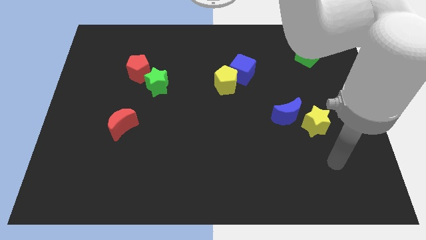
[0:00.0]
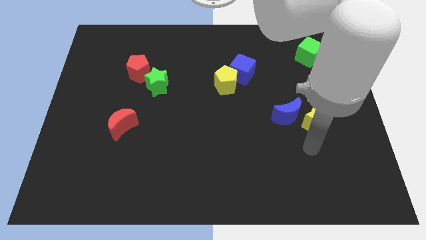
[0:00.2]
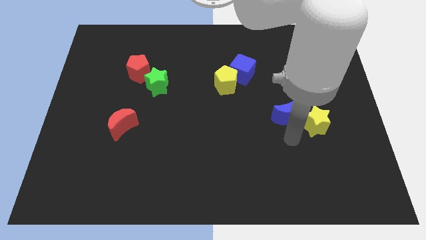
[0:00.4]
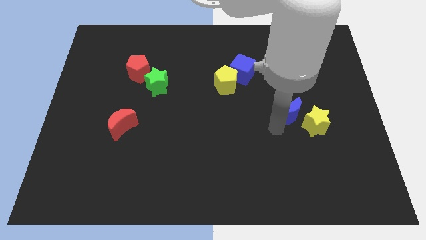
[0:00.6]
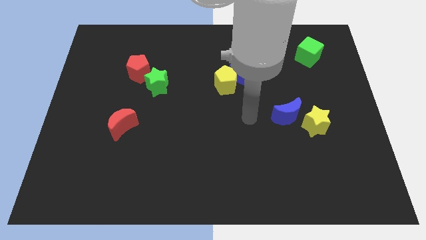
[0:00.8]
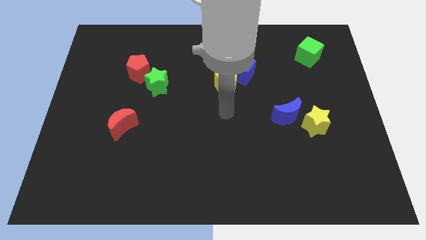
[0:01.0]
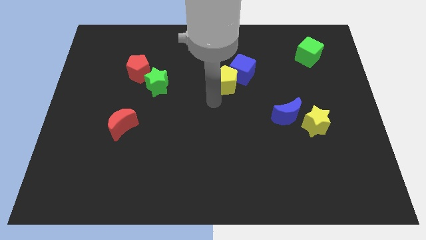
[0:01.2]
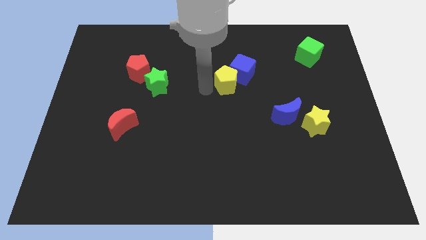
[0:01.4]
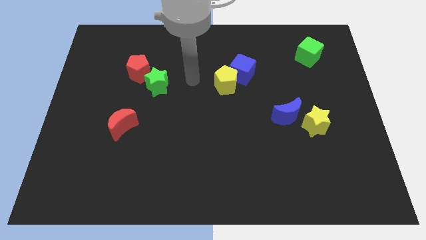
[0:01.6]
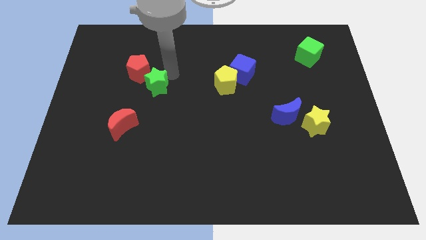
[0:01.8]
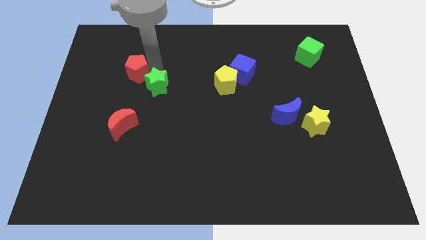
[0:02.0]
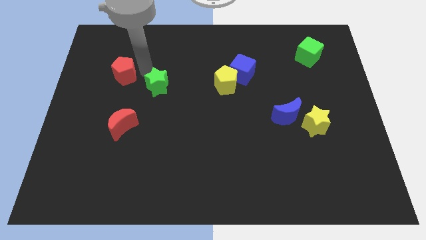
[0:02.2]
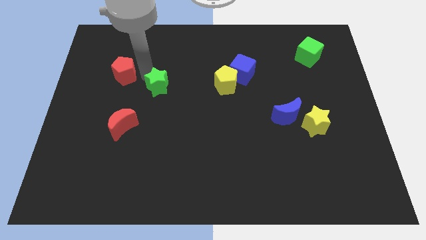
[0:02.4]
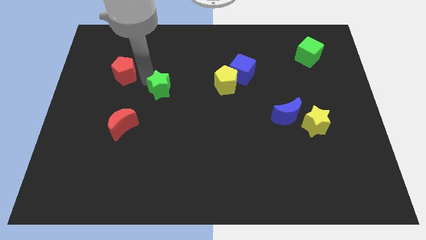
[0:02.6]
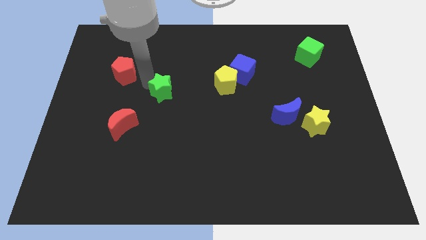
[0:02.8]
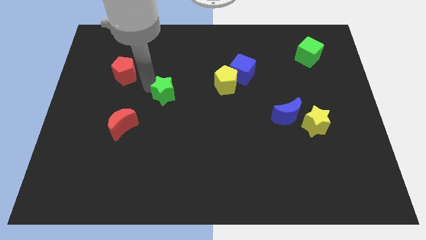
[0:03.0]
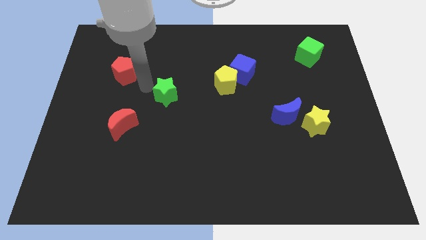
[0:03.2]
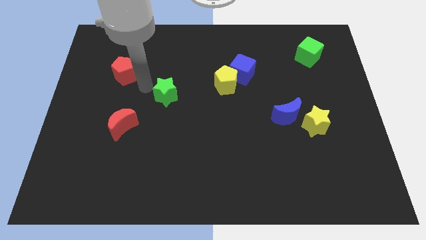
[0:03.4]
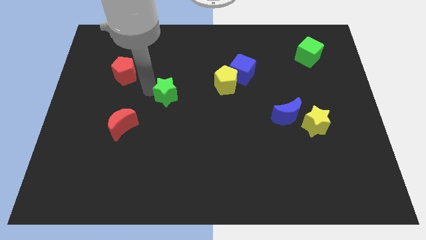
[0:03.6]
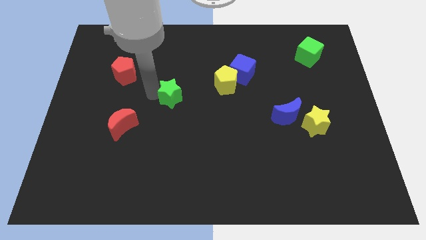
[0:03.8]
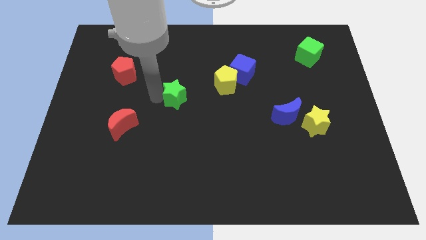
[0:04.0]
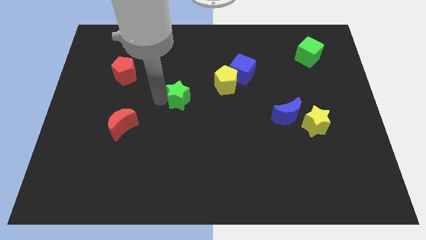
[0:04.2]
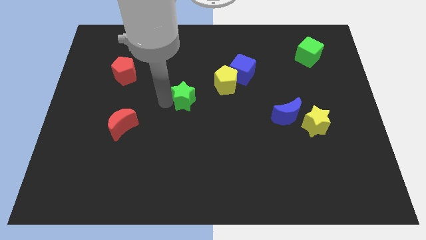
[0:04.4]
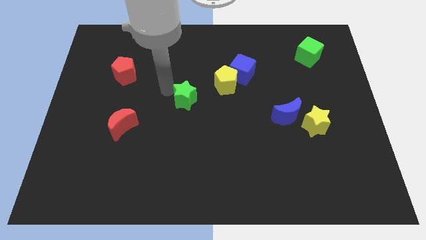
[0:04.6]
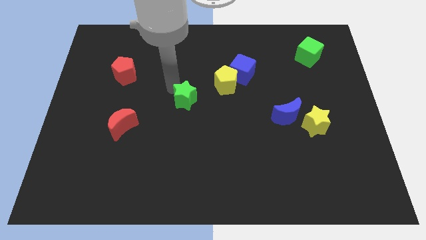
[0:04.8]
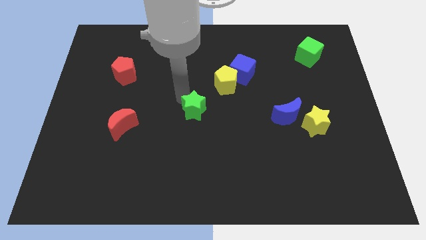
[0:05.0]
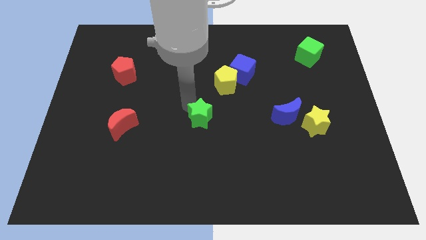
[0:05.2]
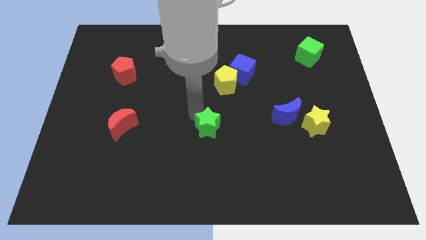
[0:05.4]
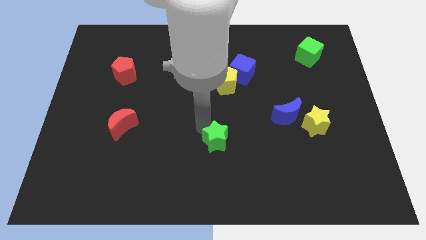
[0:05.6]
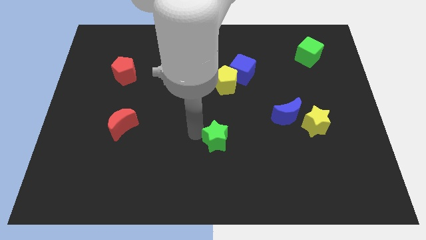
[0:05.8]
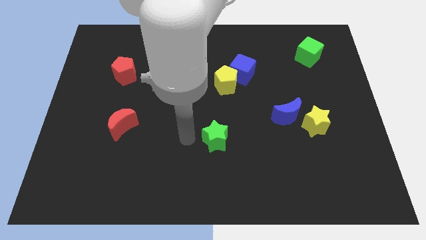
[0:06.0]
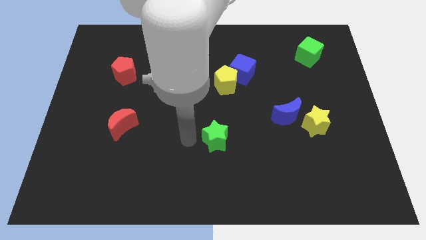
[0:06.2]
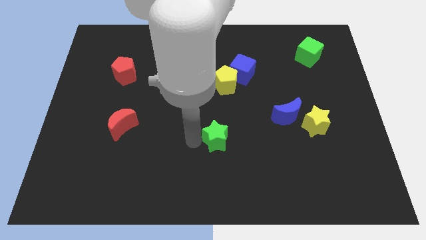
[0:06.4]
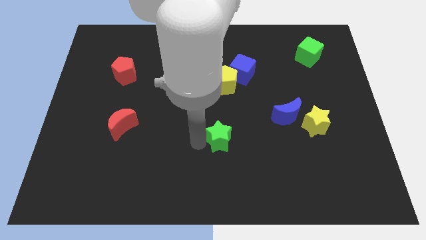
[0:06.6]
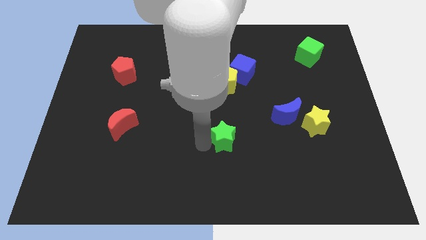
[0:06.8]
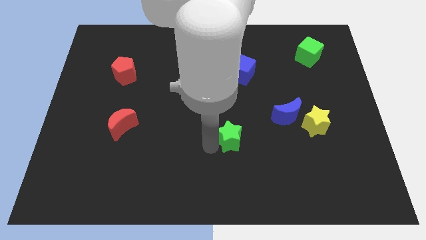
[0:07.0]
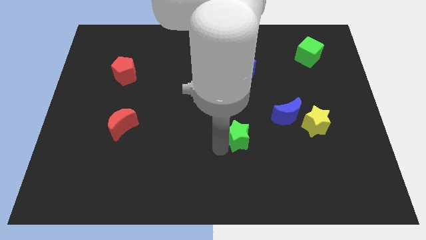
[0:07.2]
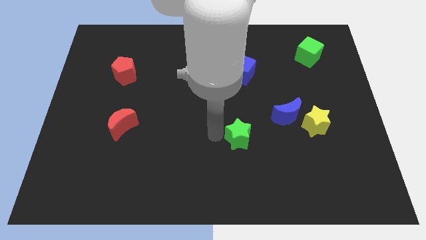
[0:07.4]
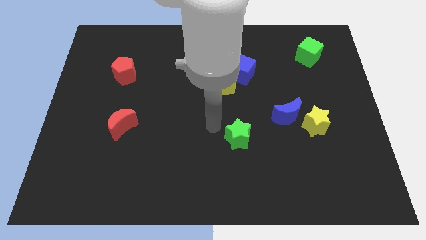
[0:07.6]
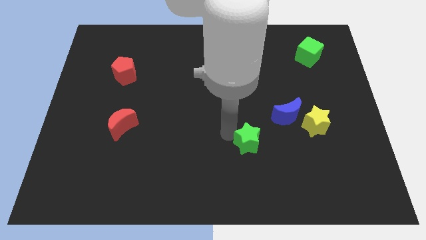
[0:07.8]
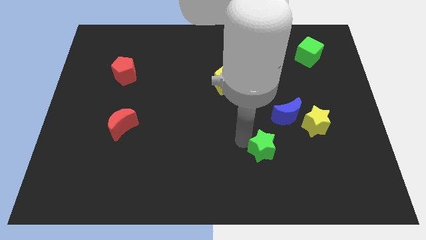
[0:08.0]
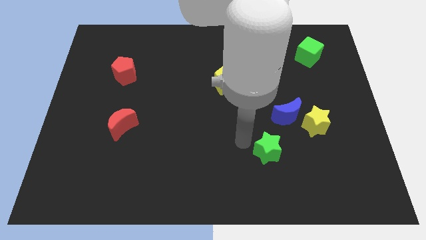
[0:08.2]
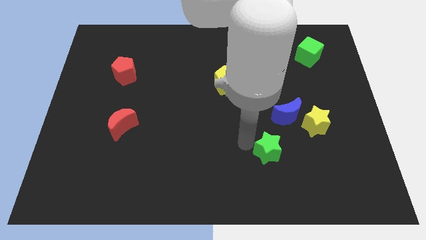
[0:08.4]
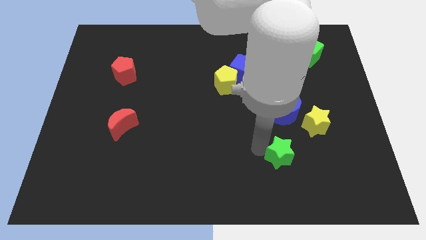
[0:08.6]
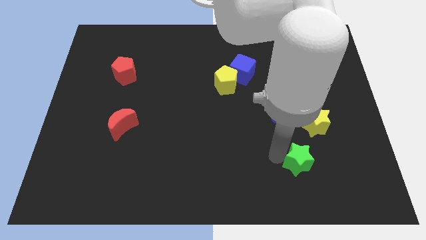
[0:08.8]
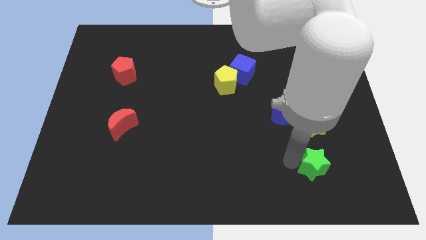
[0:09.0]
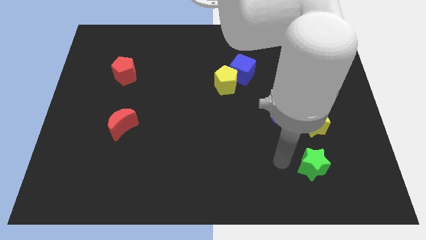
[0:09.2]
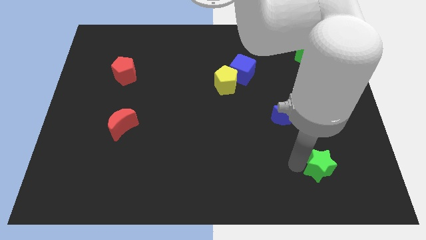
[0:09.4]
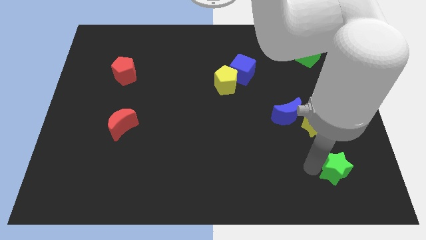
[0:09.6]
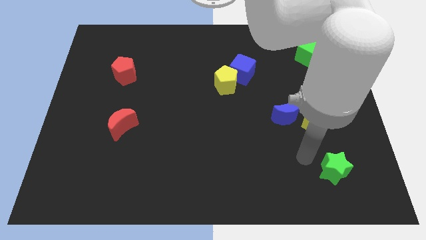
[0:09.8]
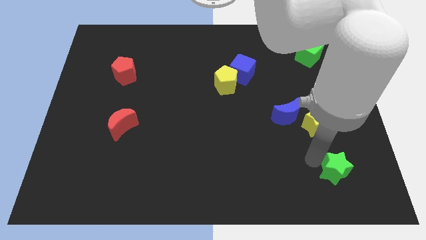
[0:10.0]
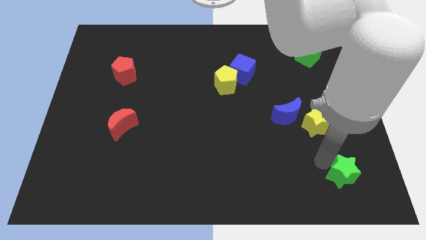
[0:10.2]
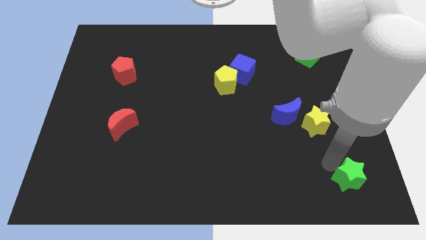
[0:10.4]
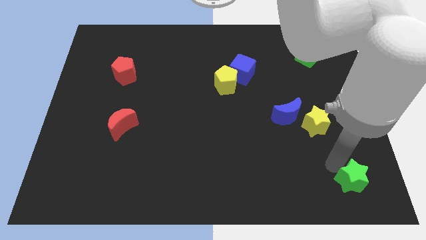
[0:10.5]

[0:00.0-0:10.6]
push the green star to the bottom right of the board

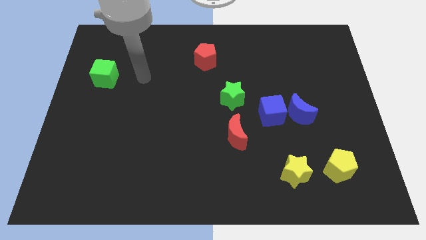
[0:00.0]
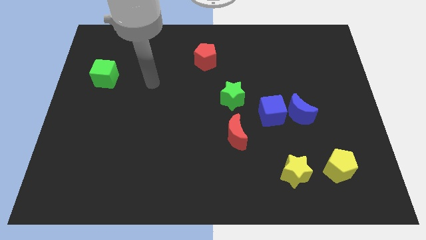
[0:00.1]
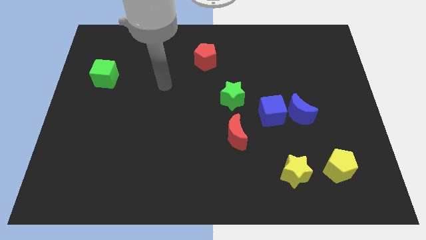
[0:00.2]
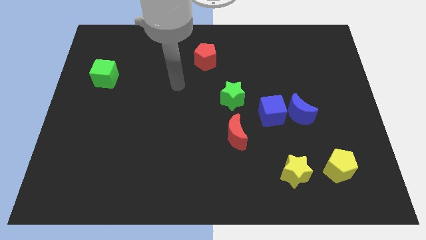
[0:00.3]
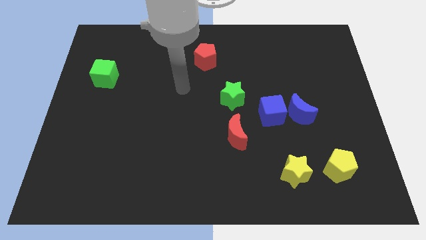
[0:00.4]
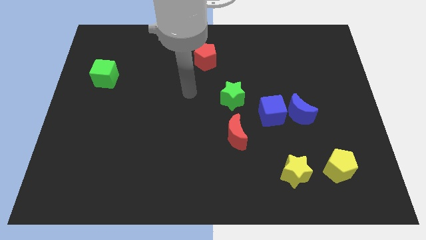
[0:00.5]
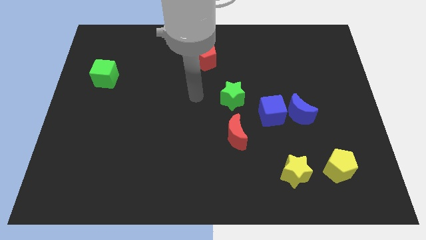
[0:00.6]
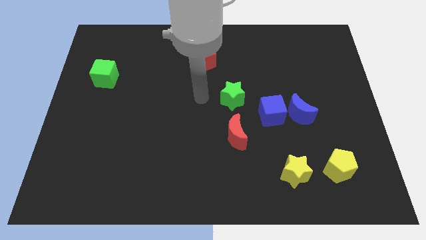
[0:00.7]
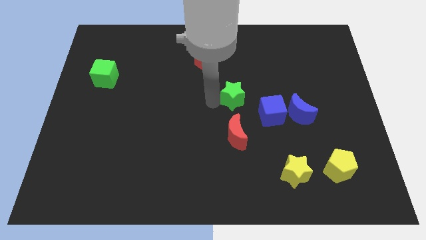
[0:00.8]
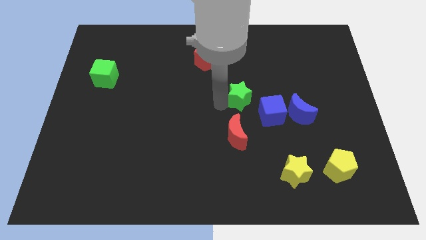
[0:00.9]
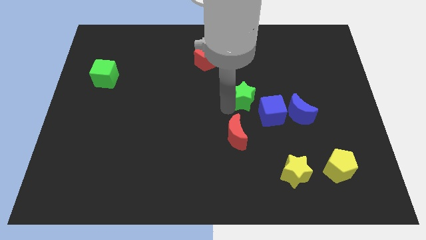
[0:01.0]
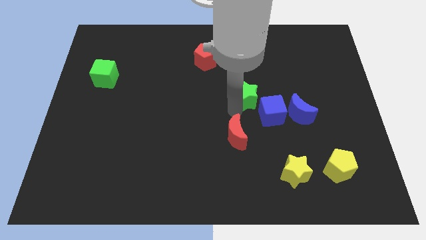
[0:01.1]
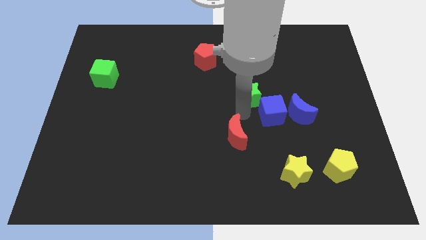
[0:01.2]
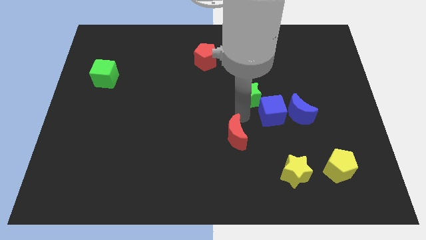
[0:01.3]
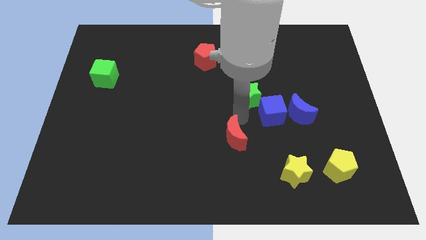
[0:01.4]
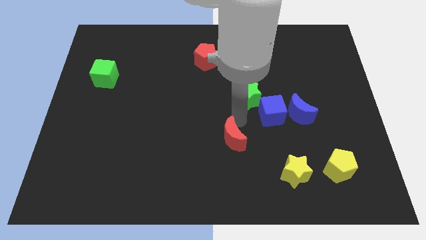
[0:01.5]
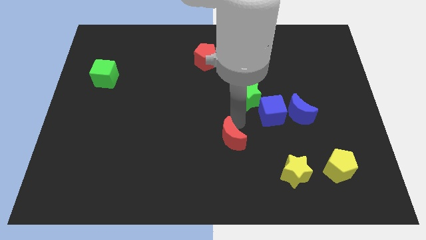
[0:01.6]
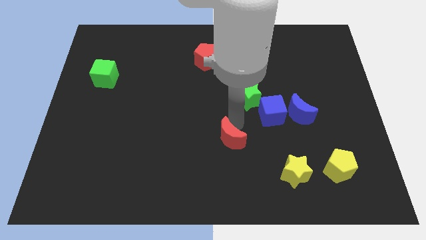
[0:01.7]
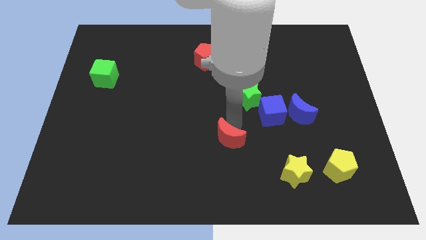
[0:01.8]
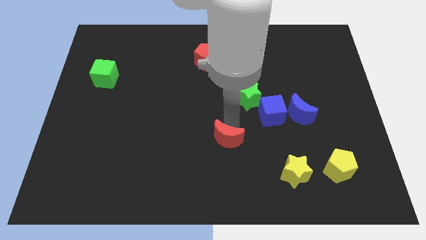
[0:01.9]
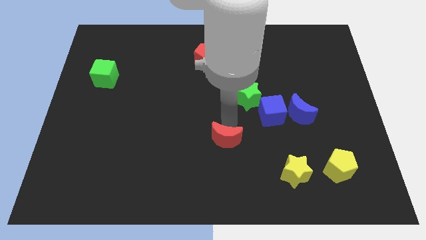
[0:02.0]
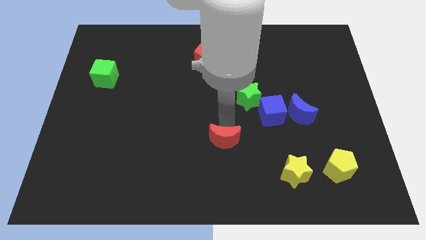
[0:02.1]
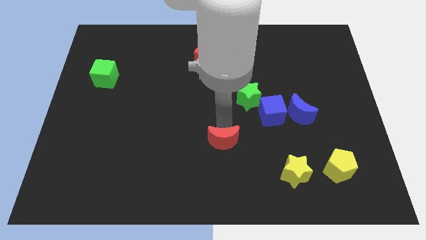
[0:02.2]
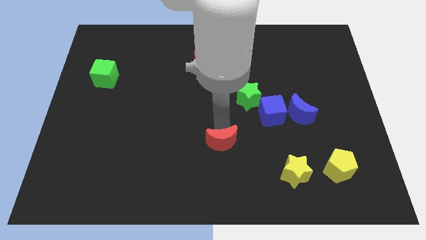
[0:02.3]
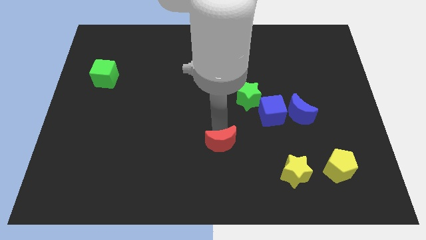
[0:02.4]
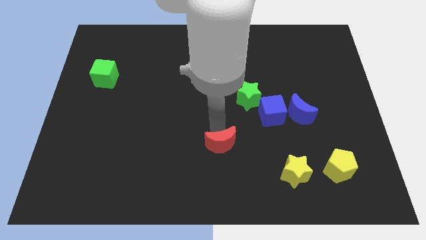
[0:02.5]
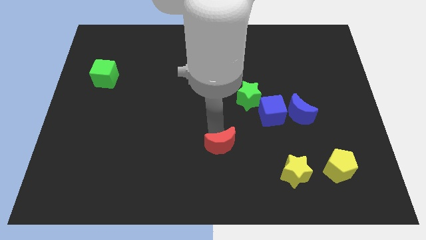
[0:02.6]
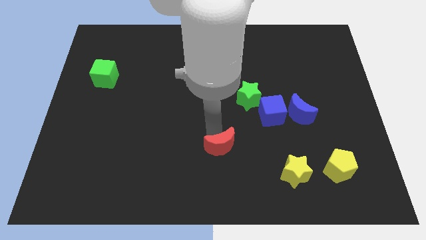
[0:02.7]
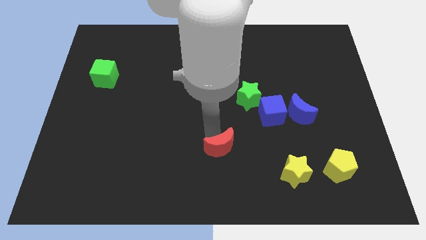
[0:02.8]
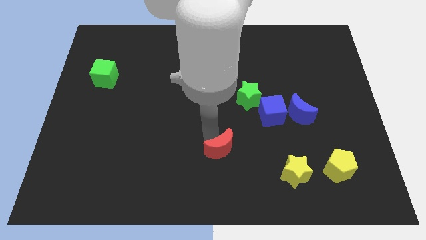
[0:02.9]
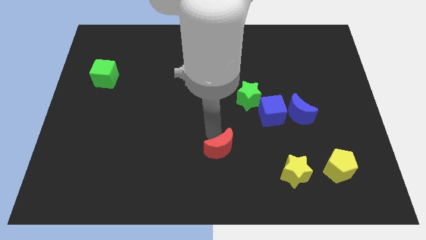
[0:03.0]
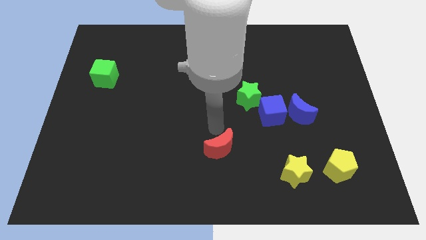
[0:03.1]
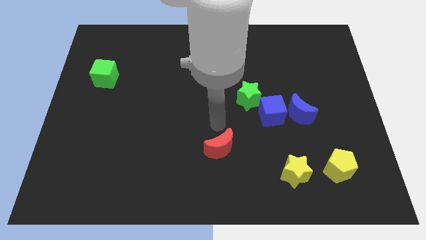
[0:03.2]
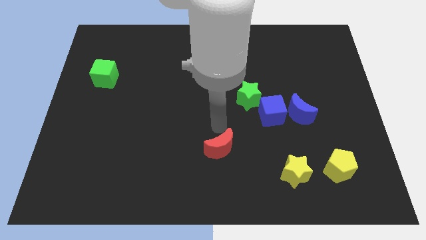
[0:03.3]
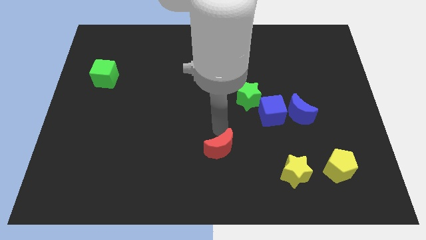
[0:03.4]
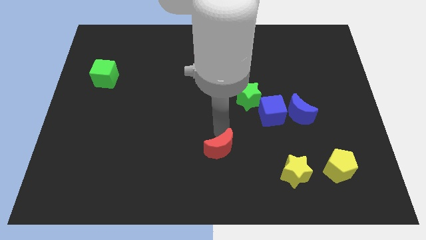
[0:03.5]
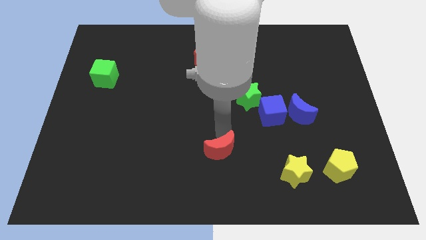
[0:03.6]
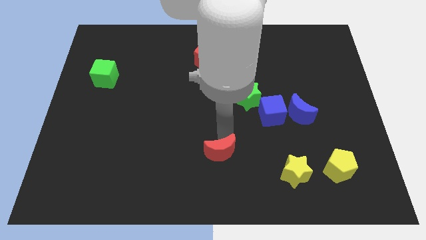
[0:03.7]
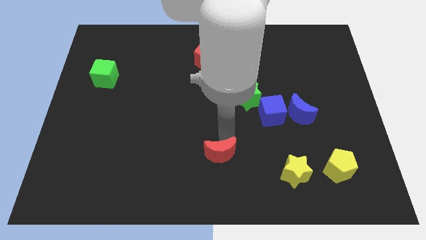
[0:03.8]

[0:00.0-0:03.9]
slide the red moon to the bottom side
